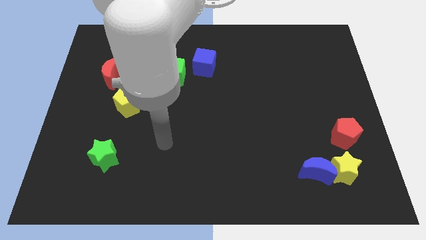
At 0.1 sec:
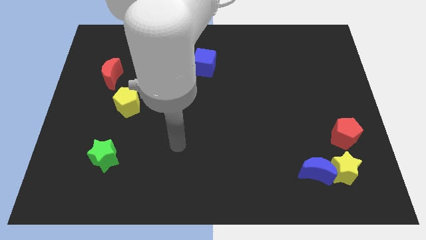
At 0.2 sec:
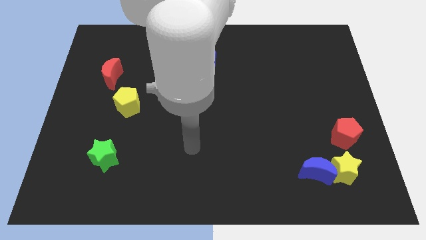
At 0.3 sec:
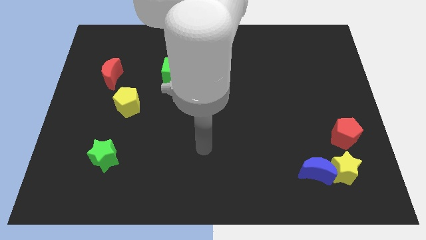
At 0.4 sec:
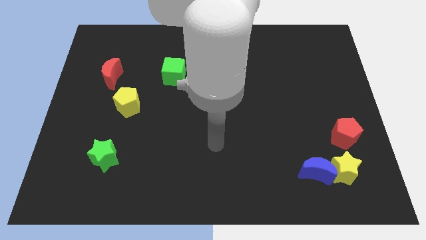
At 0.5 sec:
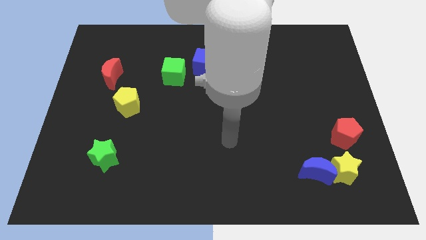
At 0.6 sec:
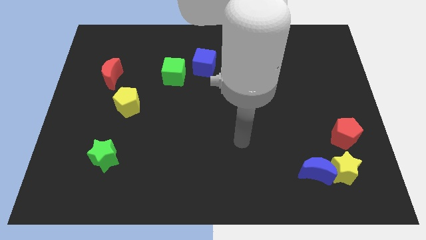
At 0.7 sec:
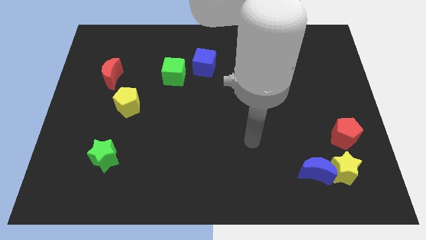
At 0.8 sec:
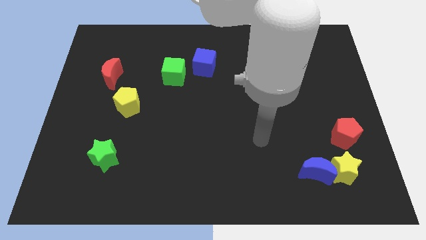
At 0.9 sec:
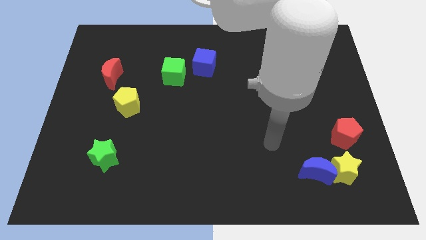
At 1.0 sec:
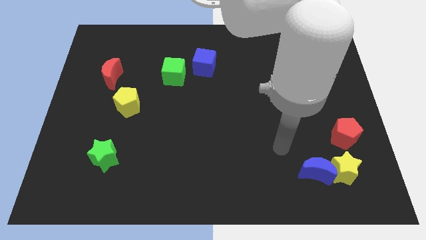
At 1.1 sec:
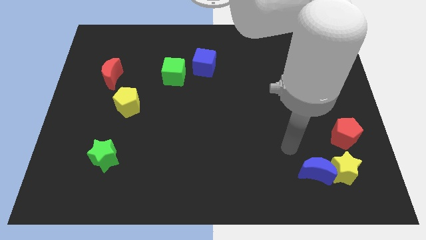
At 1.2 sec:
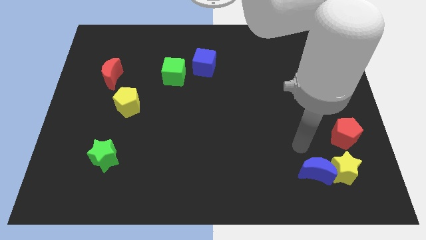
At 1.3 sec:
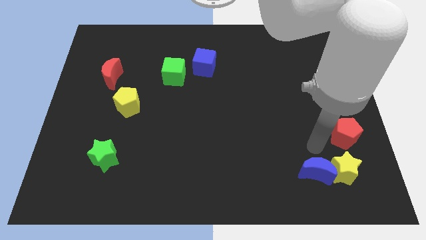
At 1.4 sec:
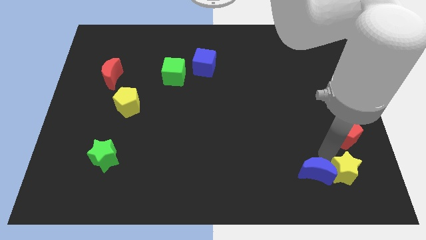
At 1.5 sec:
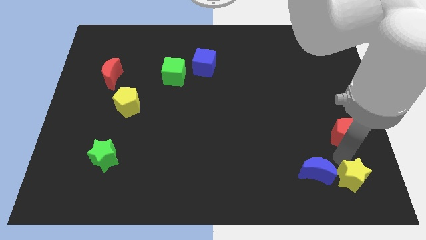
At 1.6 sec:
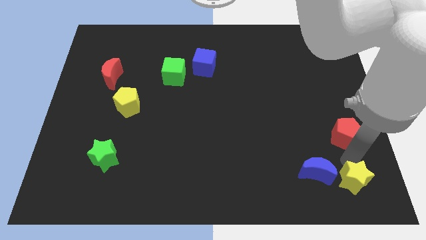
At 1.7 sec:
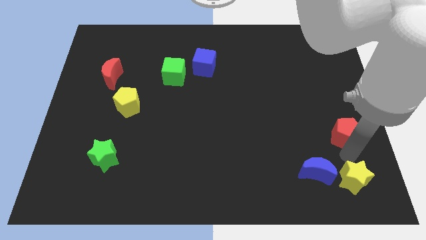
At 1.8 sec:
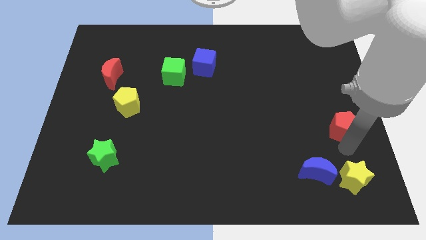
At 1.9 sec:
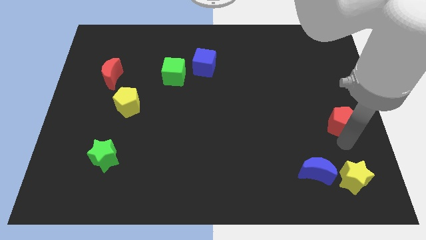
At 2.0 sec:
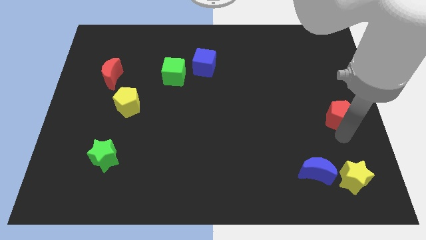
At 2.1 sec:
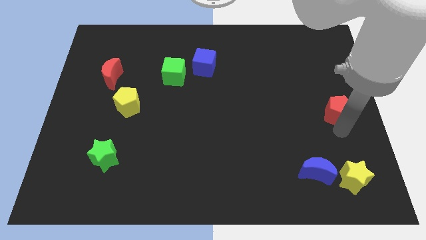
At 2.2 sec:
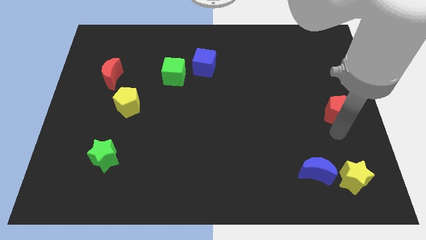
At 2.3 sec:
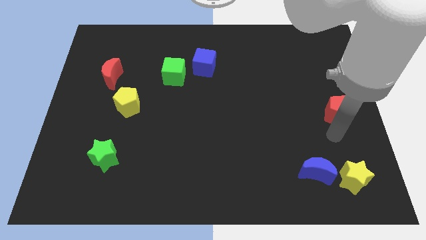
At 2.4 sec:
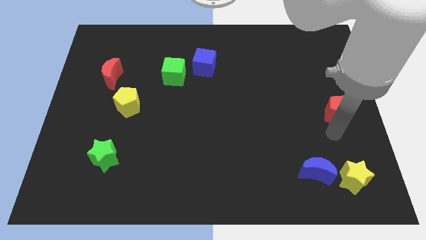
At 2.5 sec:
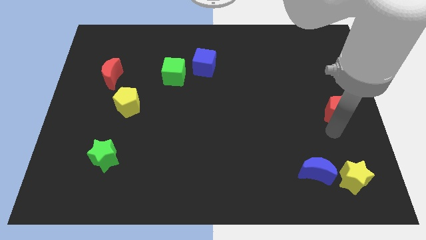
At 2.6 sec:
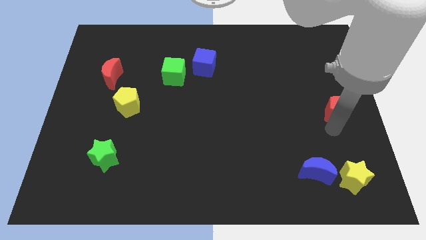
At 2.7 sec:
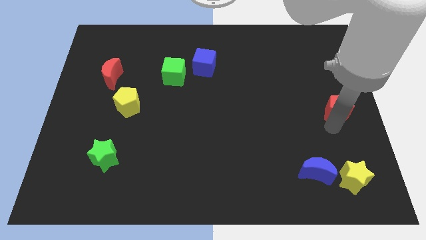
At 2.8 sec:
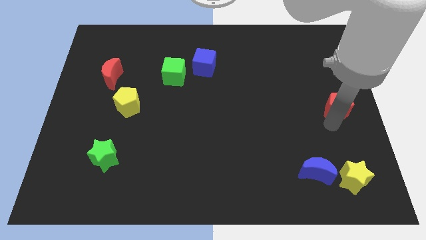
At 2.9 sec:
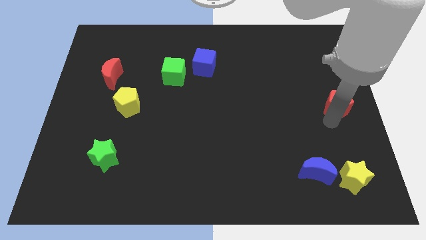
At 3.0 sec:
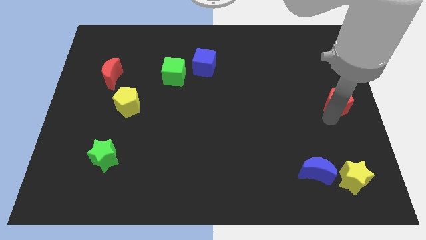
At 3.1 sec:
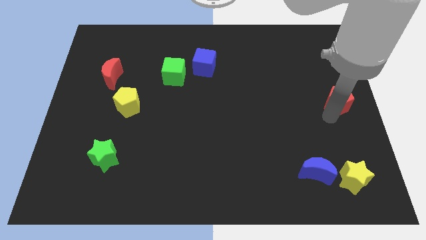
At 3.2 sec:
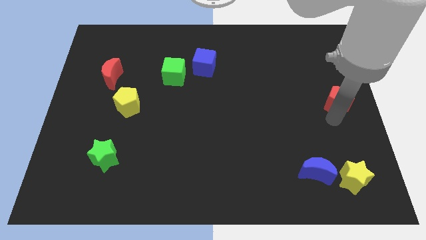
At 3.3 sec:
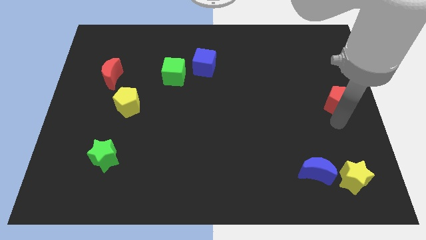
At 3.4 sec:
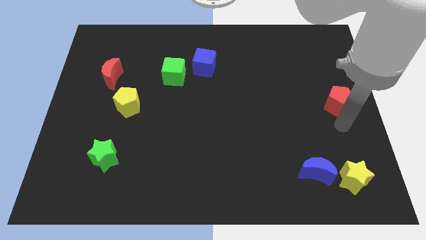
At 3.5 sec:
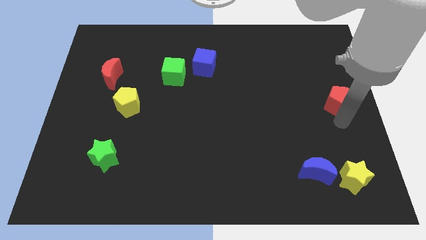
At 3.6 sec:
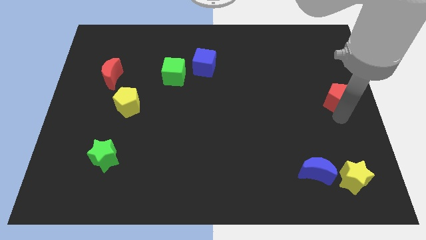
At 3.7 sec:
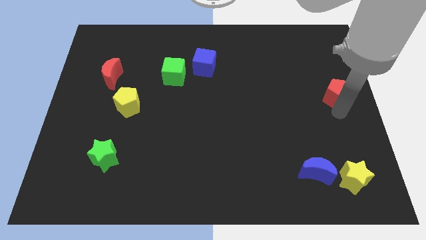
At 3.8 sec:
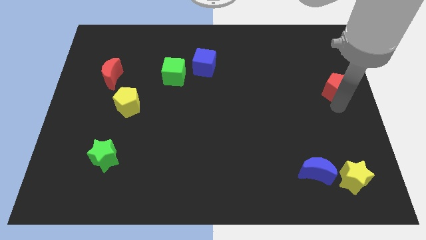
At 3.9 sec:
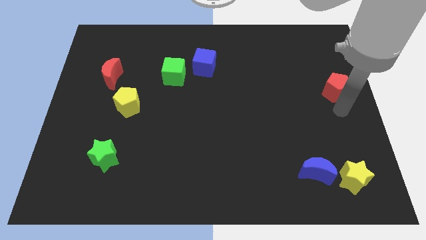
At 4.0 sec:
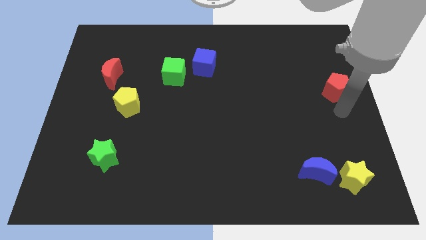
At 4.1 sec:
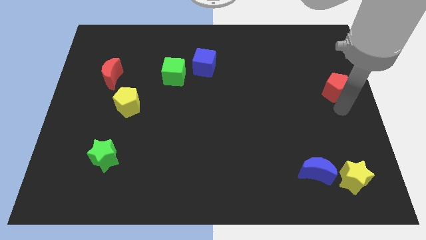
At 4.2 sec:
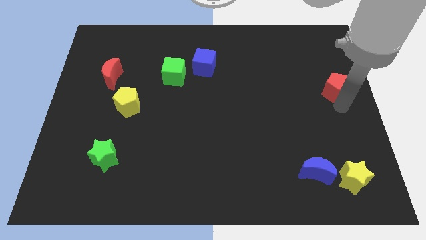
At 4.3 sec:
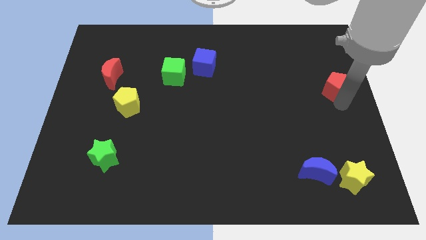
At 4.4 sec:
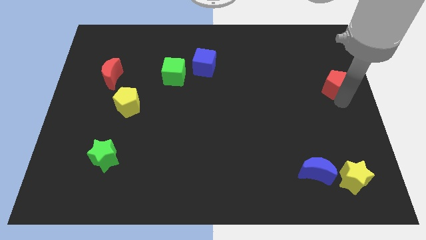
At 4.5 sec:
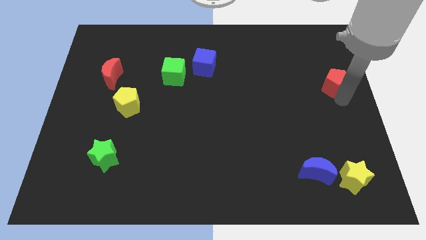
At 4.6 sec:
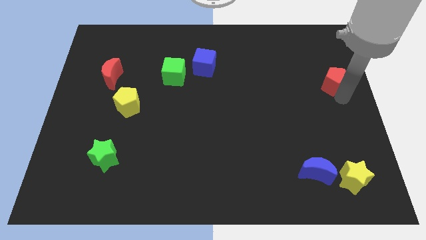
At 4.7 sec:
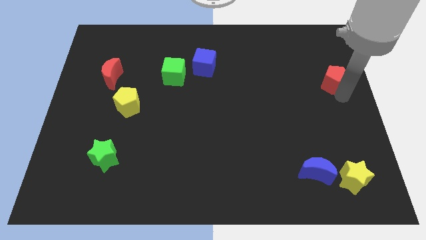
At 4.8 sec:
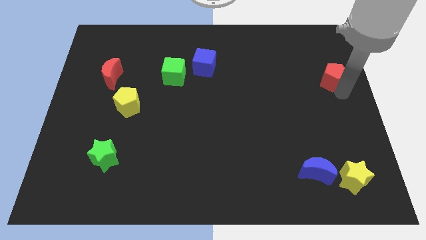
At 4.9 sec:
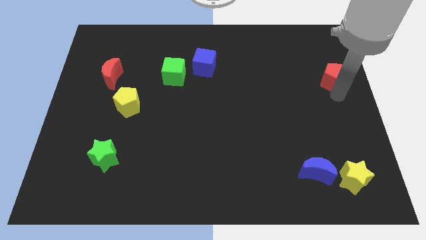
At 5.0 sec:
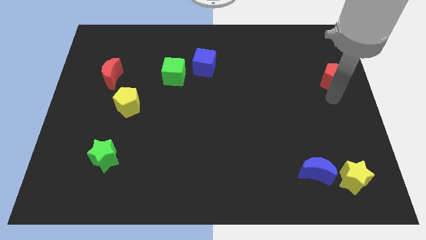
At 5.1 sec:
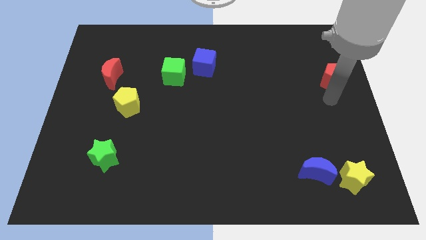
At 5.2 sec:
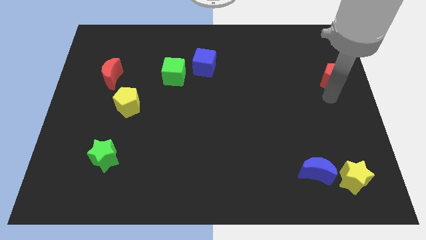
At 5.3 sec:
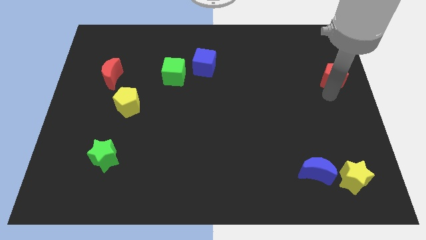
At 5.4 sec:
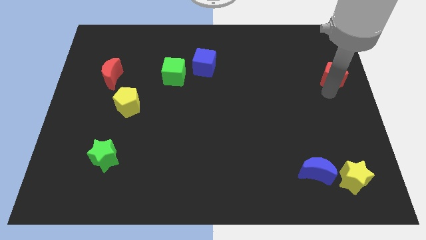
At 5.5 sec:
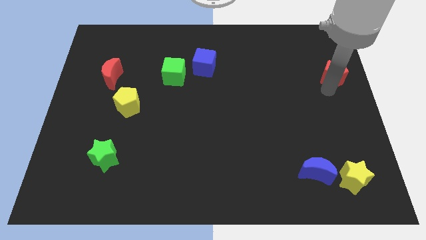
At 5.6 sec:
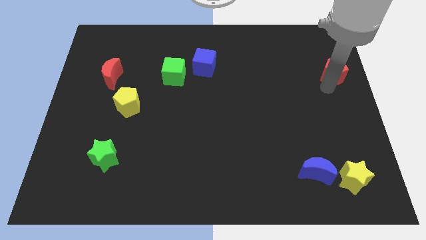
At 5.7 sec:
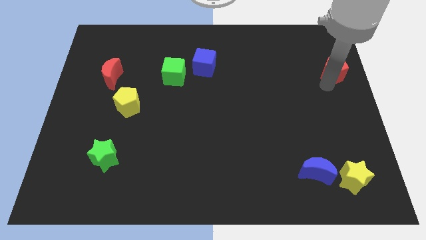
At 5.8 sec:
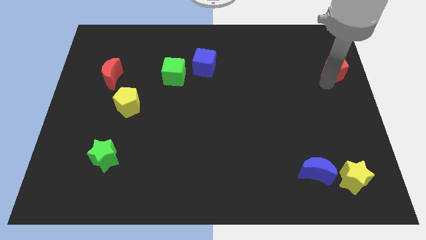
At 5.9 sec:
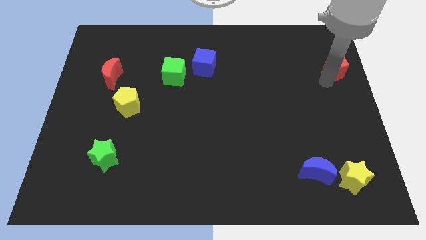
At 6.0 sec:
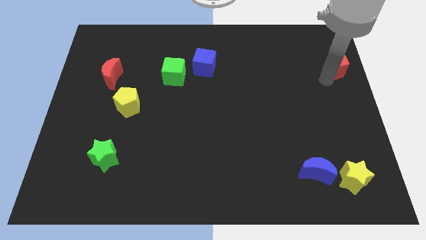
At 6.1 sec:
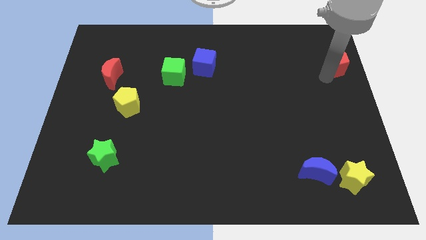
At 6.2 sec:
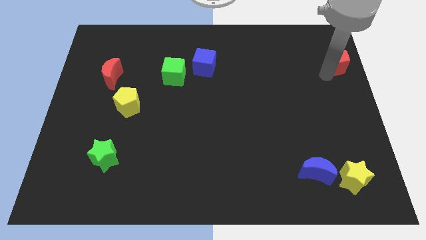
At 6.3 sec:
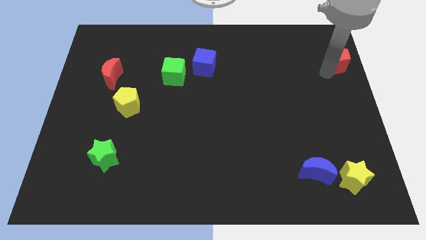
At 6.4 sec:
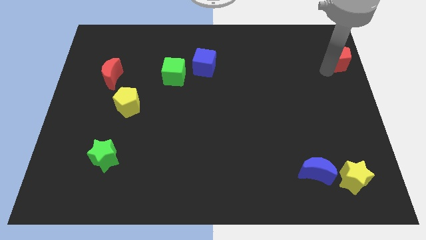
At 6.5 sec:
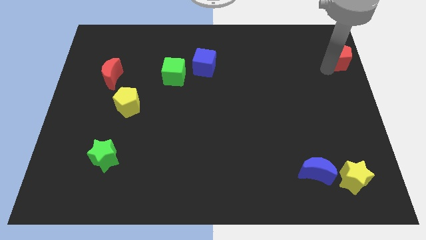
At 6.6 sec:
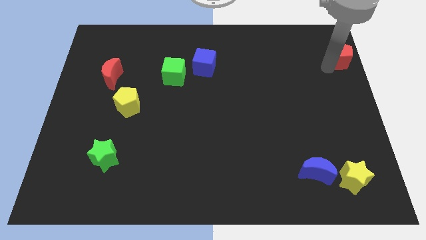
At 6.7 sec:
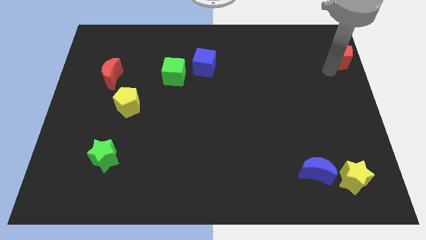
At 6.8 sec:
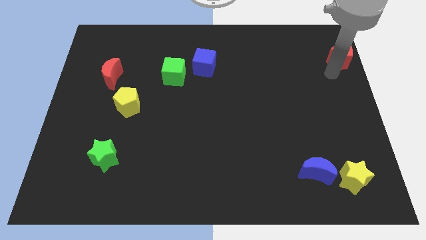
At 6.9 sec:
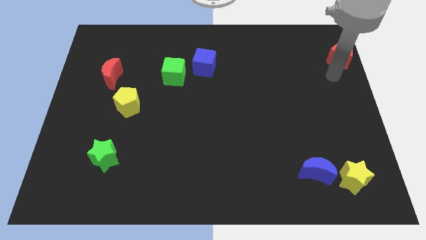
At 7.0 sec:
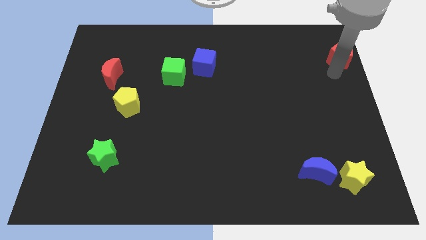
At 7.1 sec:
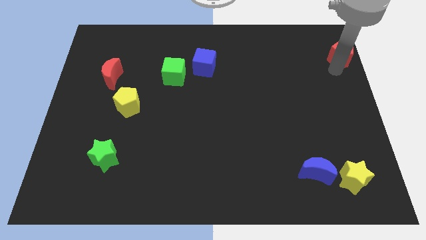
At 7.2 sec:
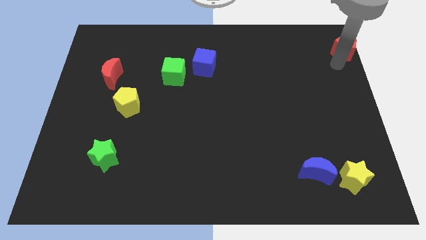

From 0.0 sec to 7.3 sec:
slide the red pentagon to the top right corner
